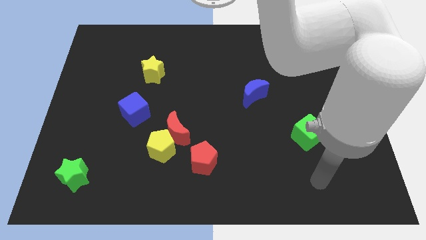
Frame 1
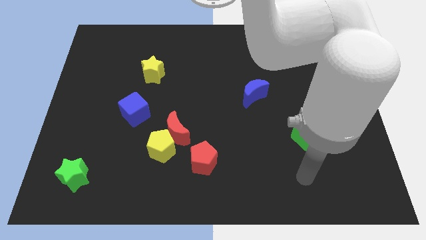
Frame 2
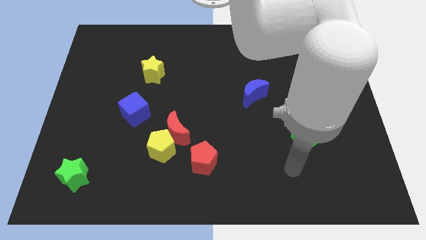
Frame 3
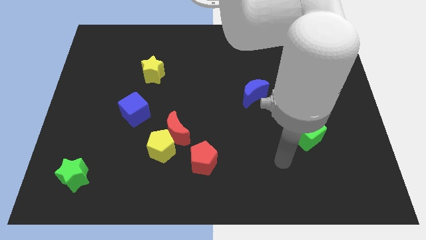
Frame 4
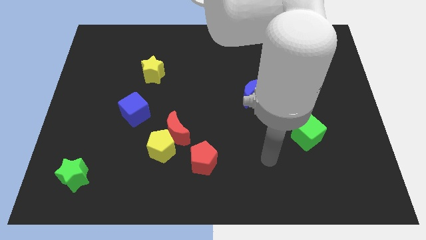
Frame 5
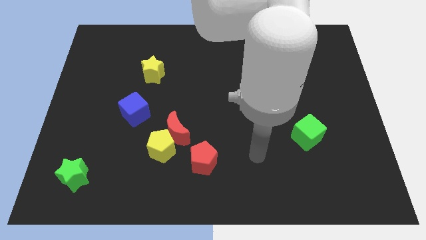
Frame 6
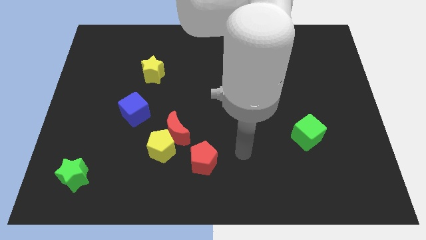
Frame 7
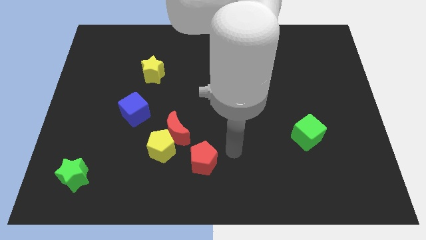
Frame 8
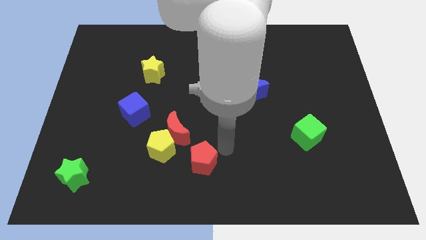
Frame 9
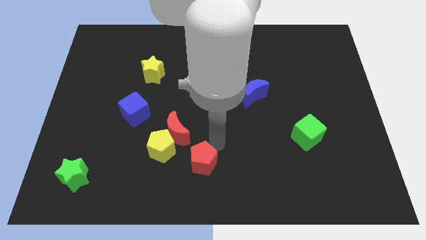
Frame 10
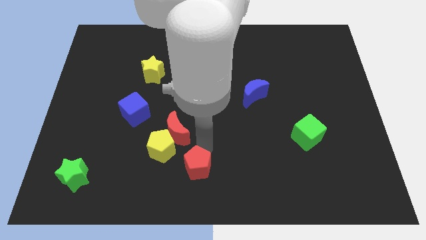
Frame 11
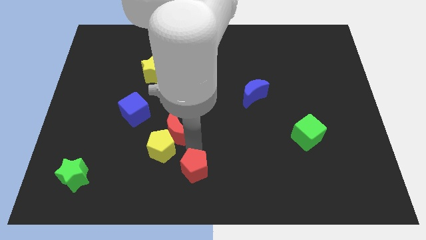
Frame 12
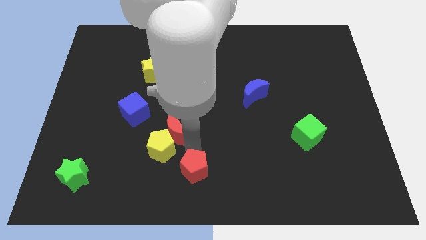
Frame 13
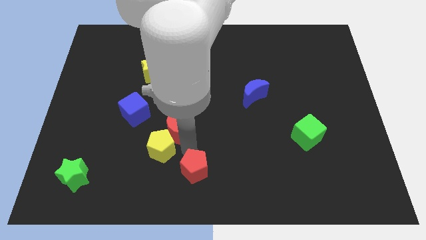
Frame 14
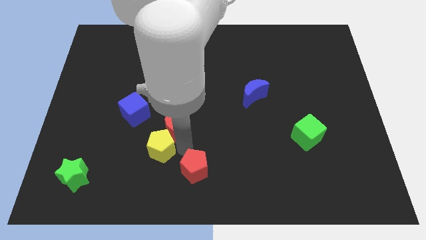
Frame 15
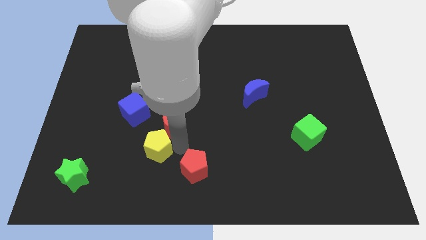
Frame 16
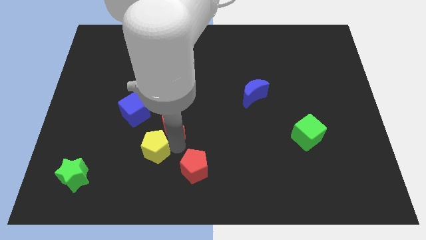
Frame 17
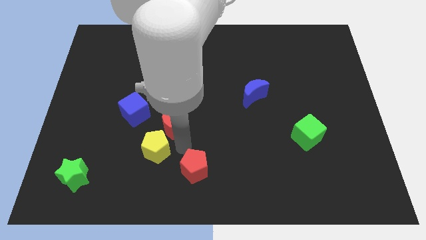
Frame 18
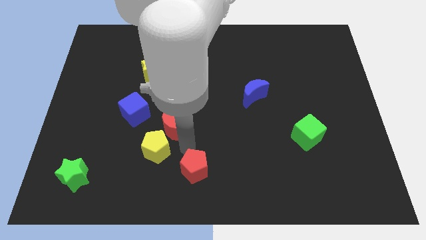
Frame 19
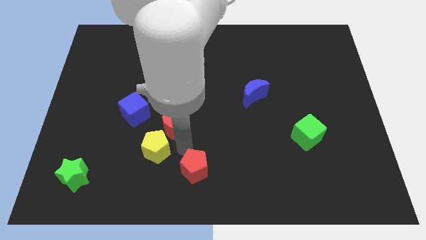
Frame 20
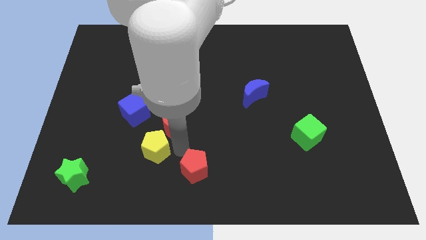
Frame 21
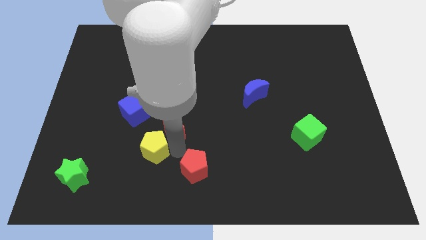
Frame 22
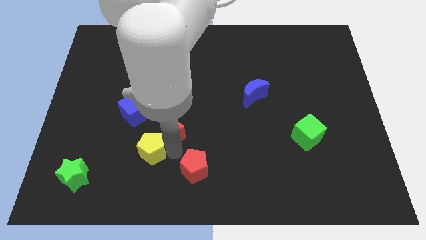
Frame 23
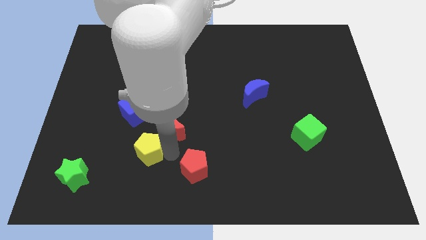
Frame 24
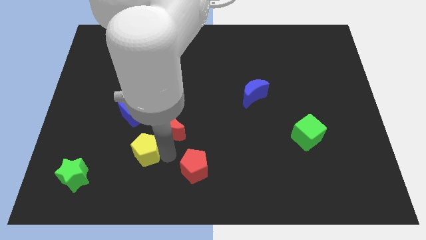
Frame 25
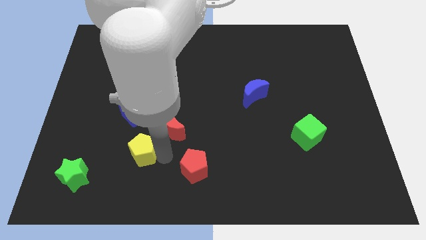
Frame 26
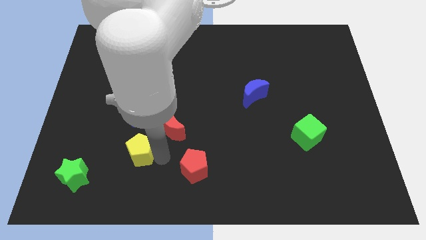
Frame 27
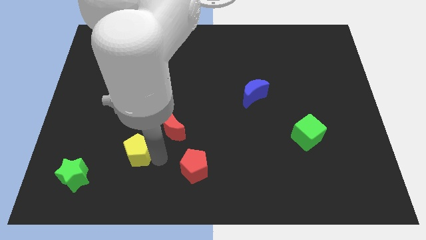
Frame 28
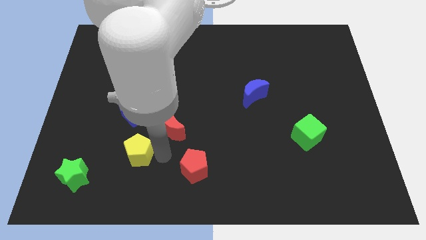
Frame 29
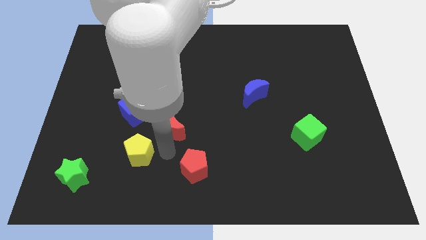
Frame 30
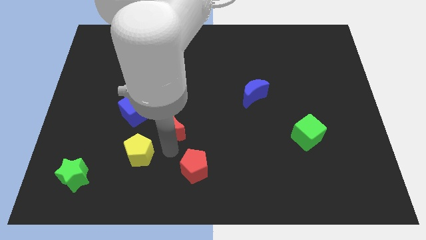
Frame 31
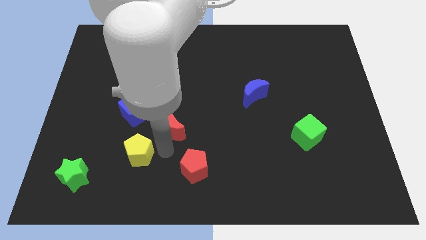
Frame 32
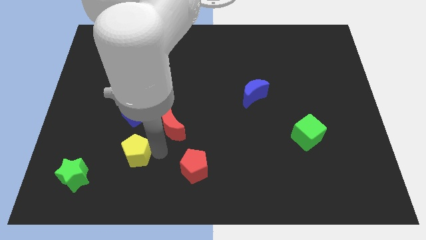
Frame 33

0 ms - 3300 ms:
pull the yellow pentagon apart from the red moon and red pentagon

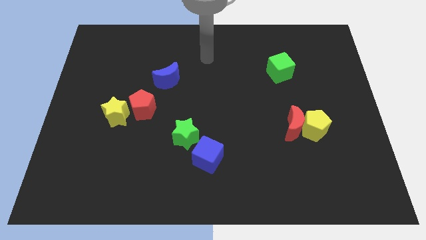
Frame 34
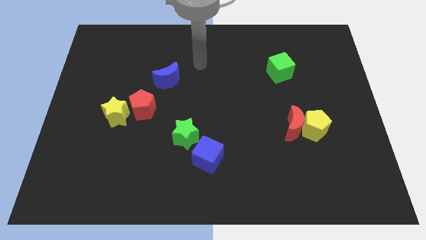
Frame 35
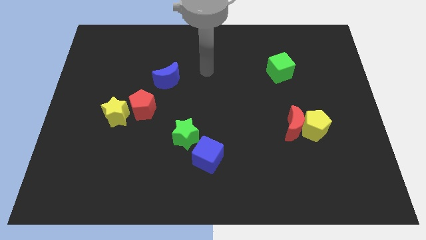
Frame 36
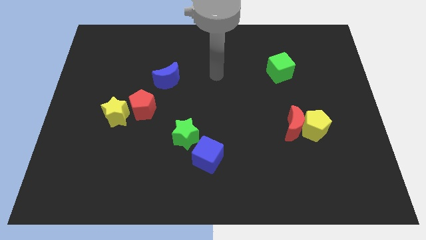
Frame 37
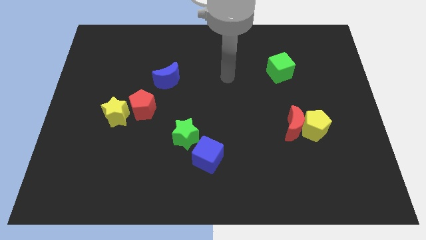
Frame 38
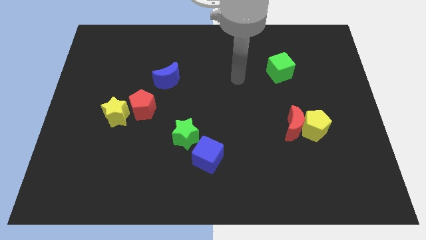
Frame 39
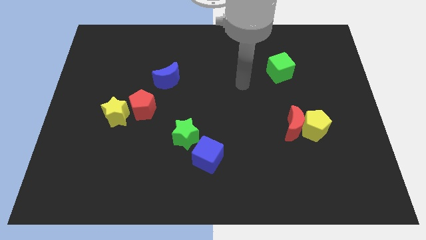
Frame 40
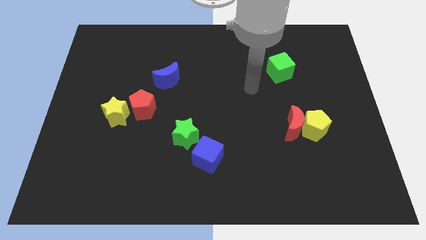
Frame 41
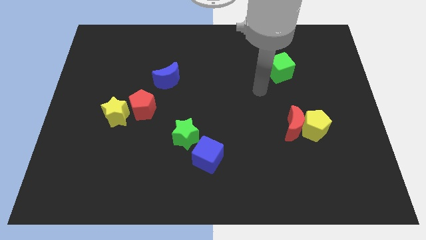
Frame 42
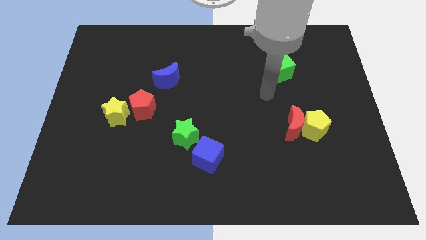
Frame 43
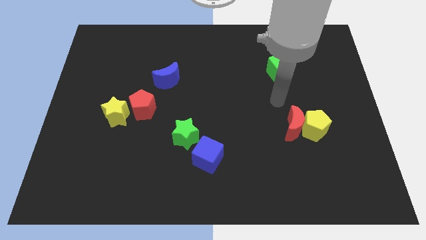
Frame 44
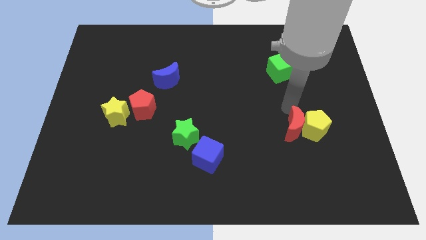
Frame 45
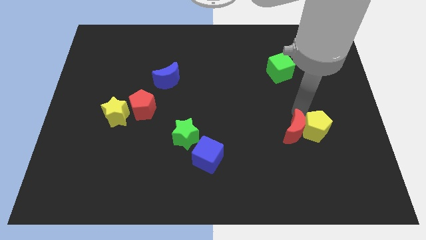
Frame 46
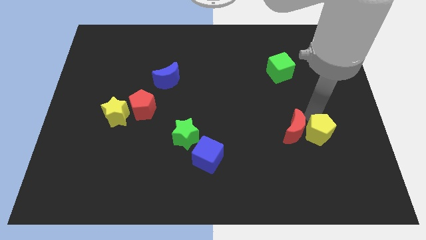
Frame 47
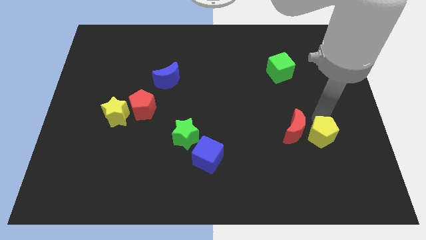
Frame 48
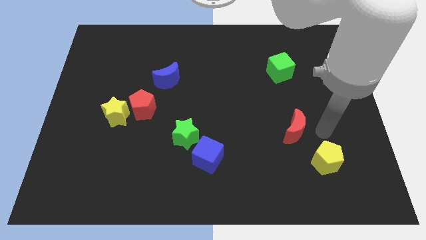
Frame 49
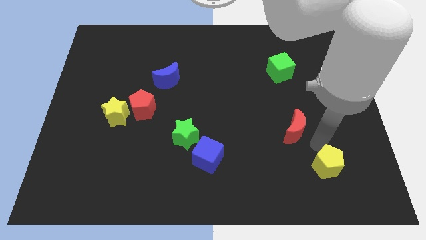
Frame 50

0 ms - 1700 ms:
pull the red moon apart from the yellow pentagon

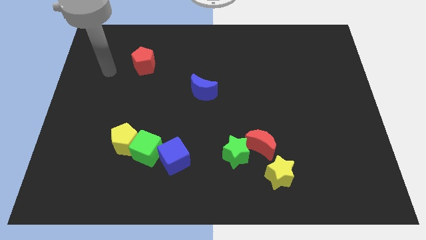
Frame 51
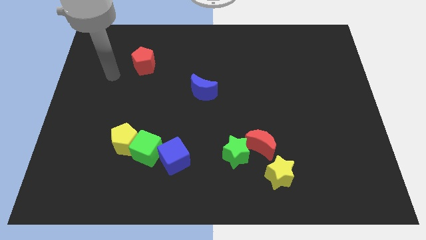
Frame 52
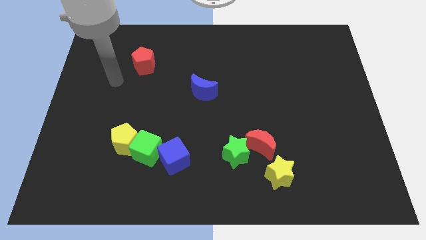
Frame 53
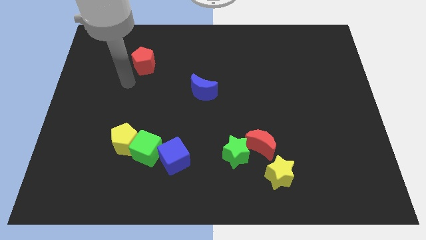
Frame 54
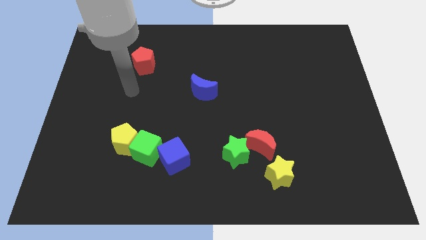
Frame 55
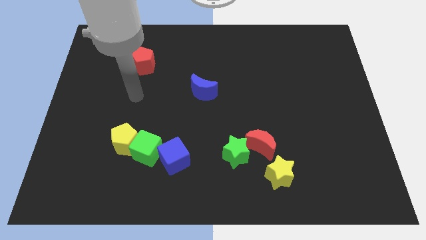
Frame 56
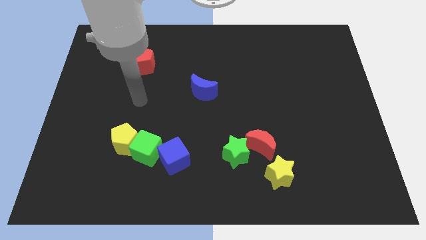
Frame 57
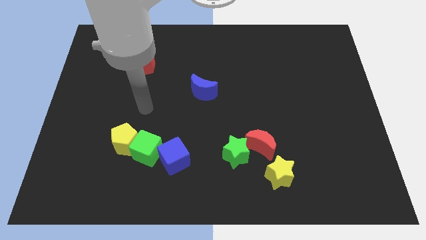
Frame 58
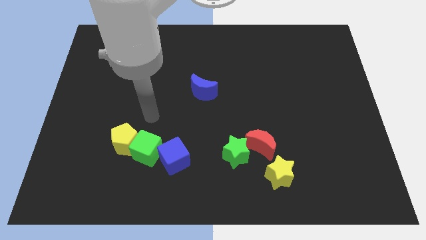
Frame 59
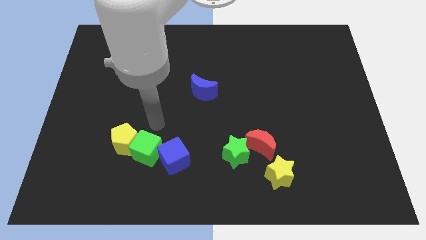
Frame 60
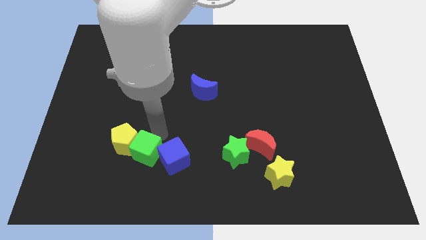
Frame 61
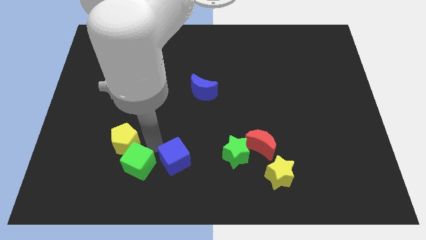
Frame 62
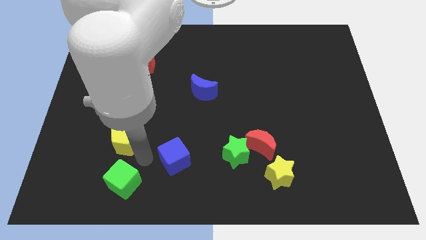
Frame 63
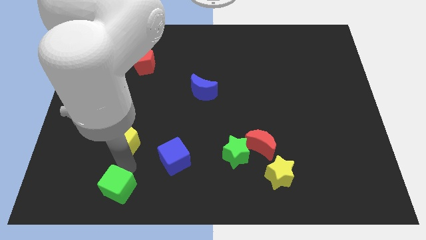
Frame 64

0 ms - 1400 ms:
separate the yellow pentagon from the green cube

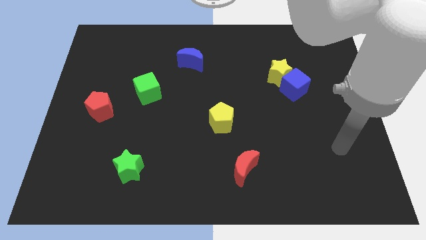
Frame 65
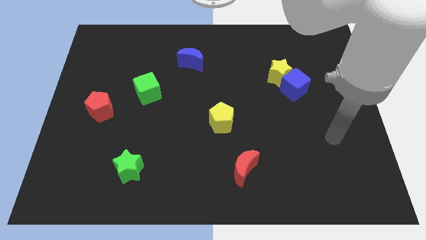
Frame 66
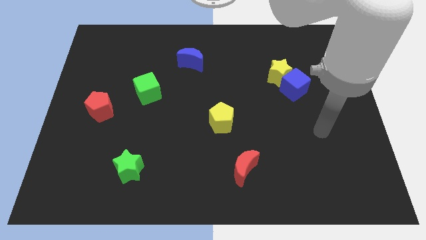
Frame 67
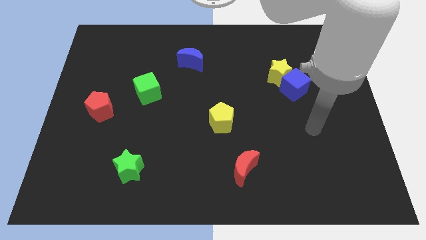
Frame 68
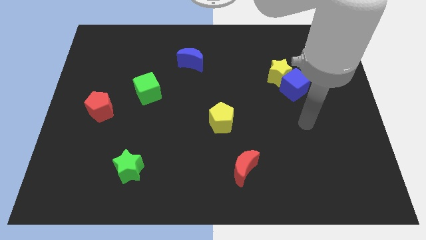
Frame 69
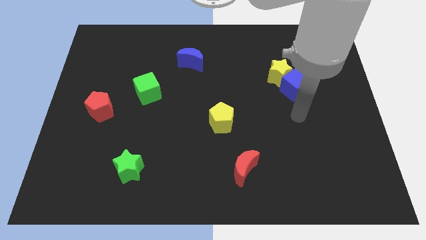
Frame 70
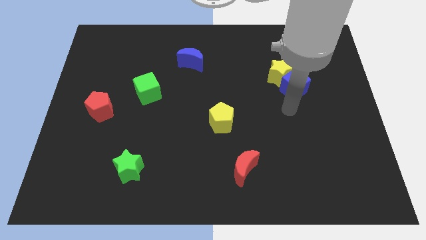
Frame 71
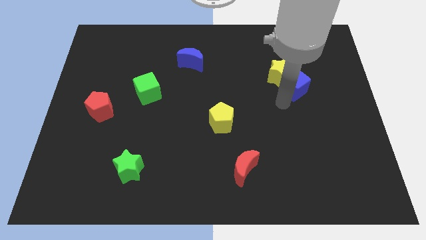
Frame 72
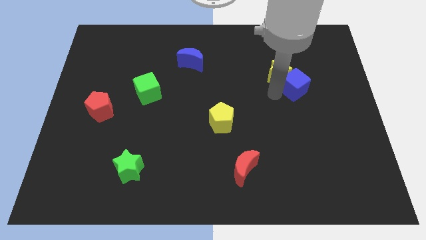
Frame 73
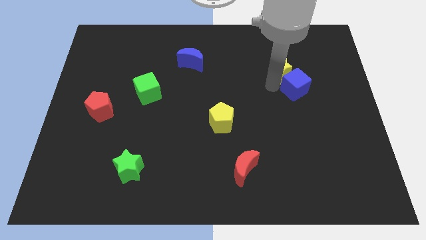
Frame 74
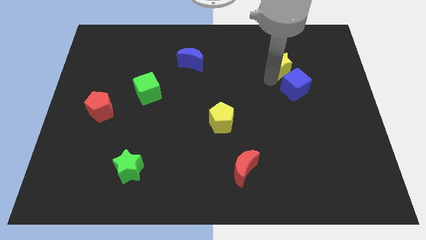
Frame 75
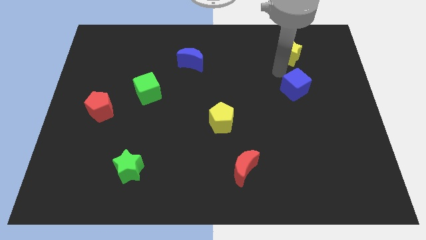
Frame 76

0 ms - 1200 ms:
pull the blue cube apart from the yellow star

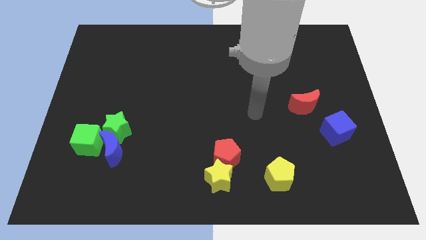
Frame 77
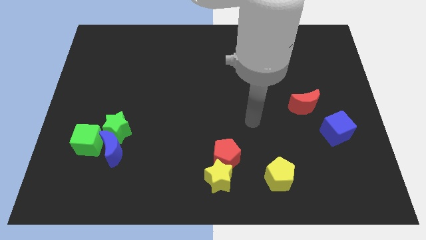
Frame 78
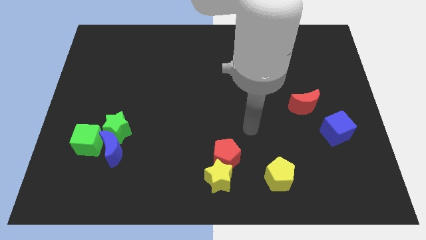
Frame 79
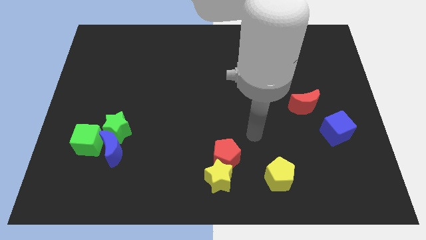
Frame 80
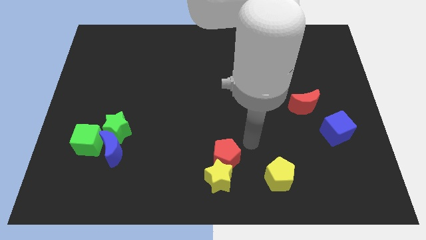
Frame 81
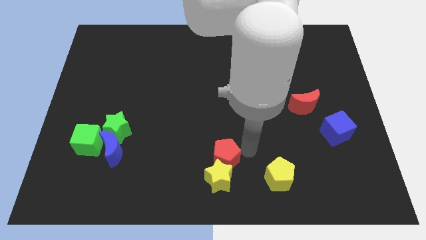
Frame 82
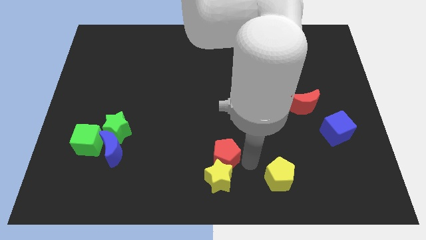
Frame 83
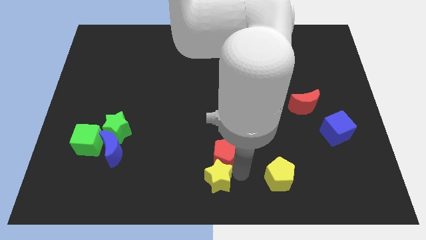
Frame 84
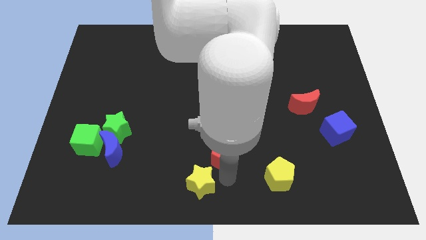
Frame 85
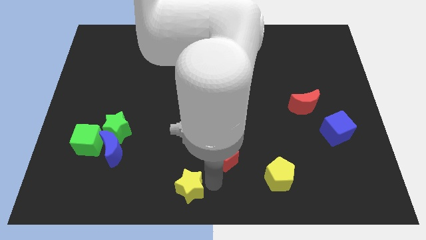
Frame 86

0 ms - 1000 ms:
separate the red pentagon from the yellow star

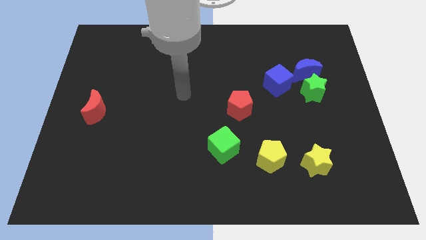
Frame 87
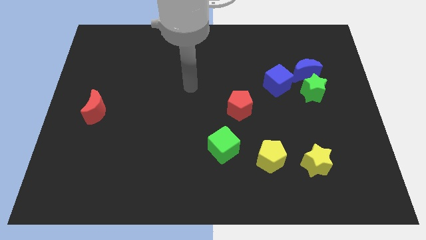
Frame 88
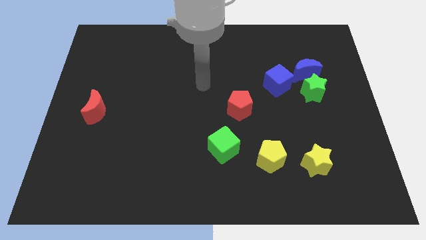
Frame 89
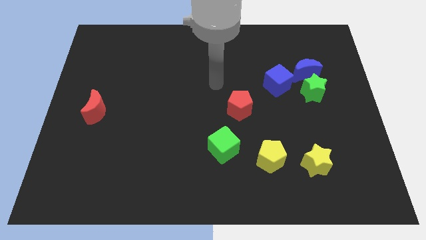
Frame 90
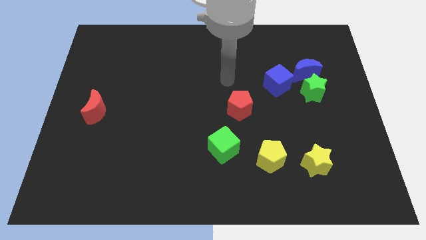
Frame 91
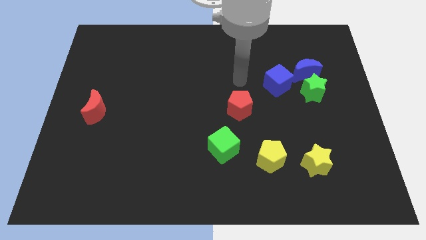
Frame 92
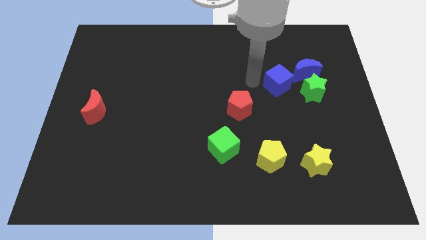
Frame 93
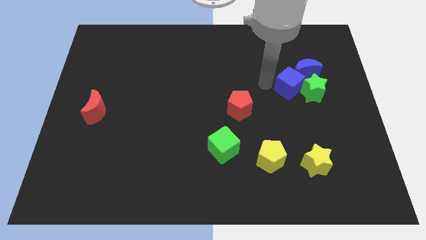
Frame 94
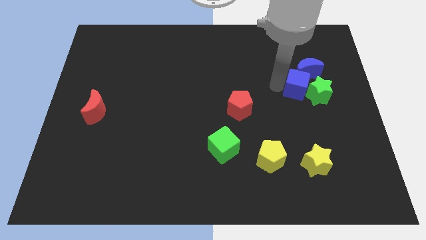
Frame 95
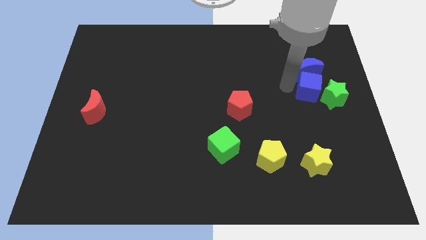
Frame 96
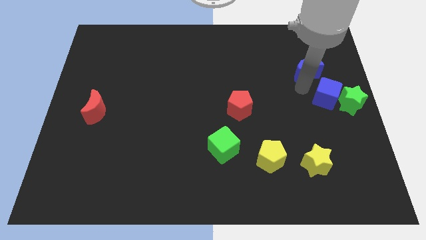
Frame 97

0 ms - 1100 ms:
pull the blue moon apart from the green star and blue cube
